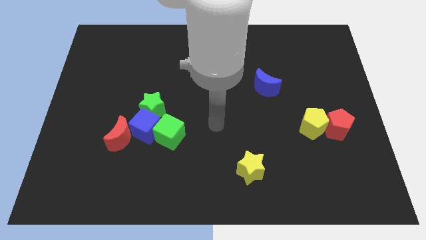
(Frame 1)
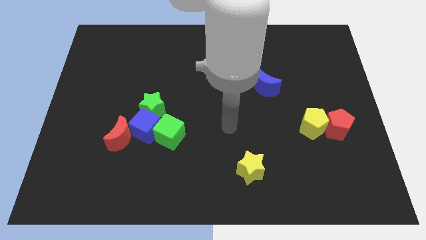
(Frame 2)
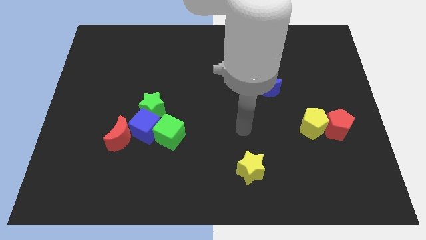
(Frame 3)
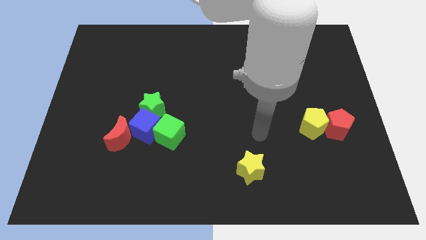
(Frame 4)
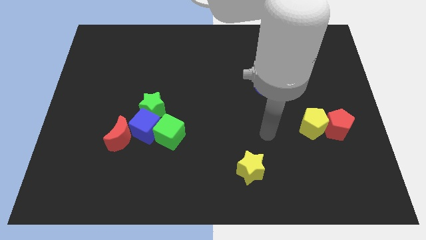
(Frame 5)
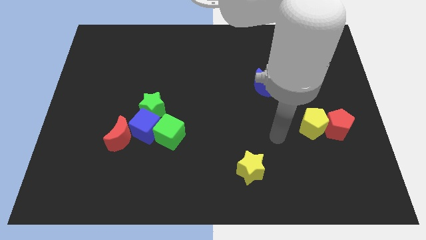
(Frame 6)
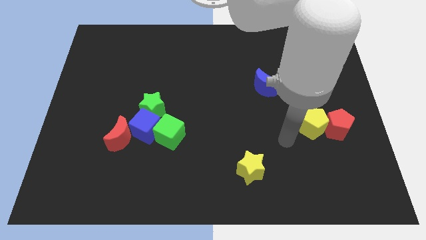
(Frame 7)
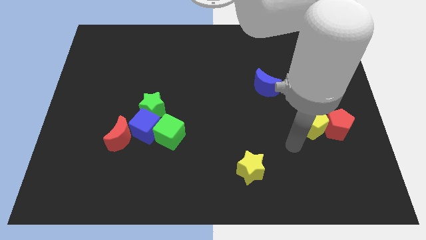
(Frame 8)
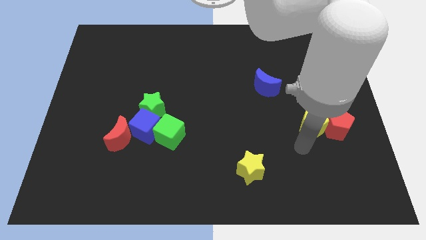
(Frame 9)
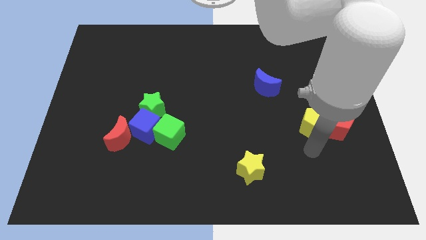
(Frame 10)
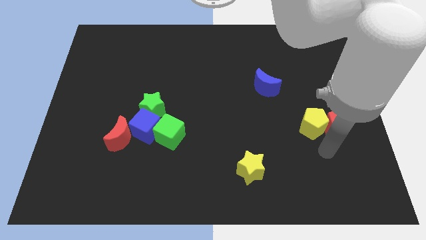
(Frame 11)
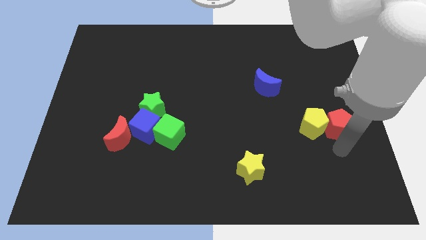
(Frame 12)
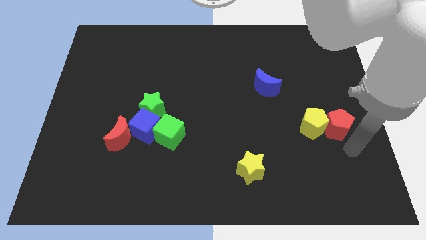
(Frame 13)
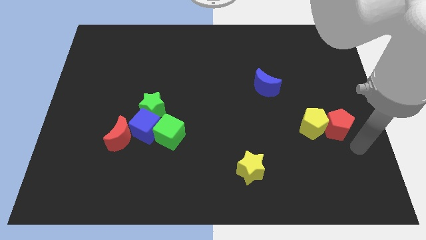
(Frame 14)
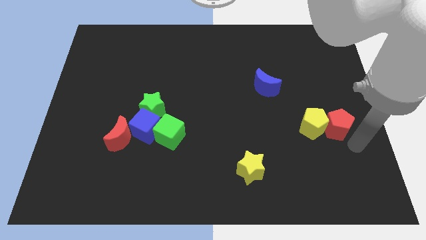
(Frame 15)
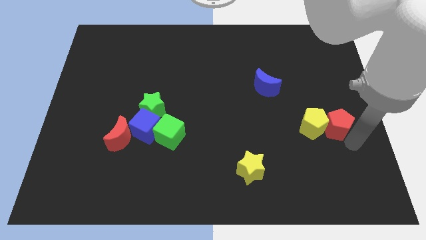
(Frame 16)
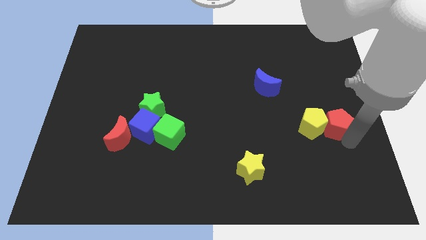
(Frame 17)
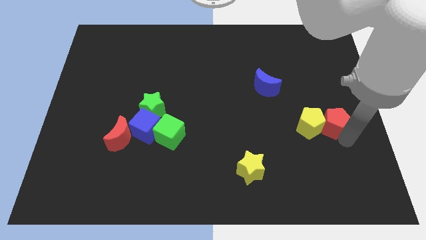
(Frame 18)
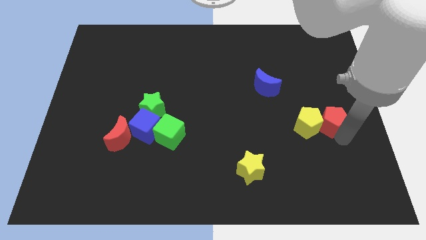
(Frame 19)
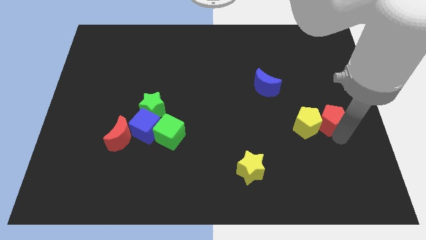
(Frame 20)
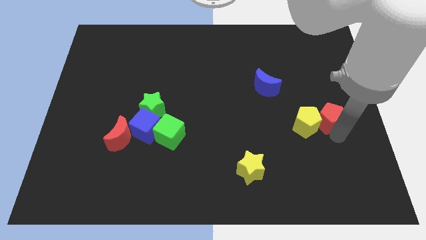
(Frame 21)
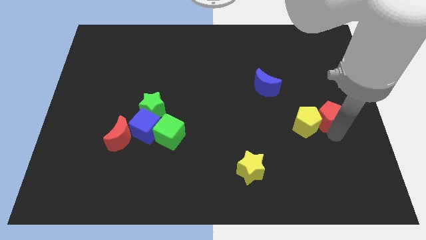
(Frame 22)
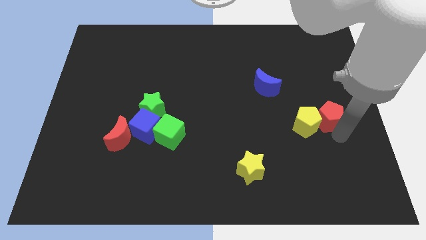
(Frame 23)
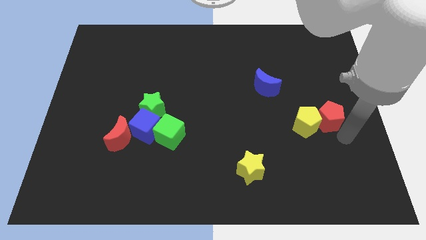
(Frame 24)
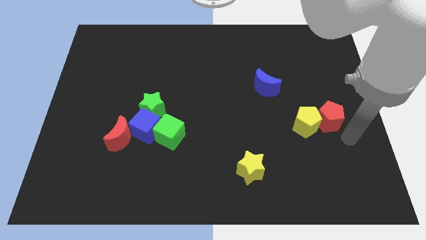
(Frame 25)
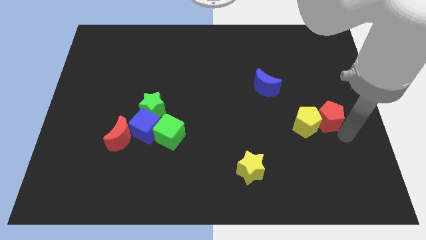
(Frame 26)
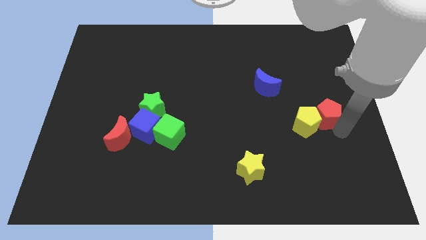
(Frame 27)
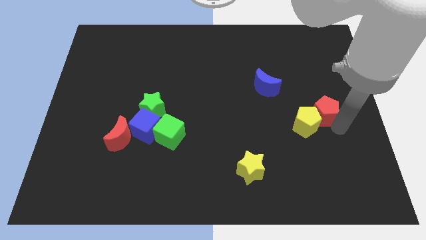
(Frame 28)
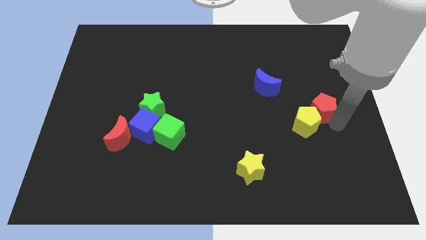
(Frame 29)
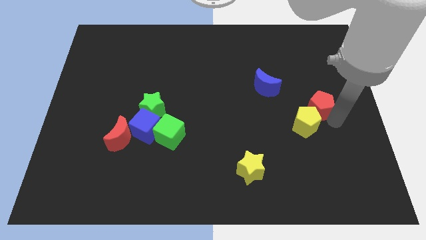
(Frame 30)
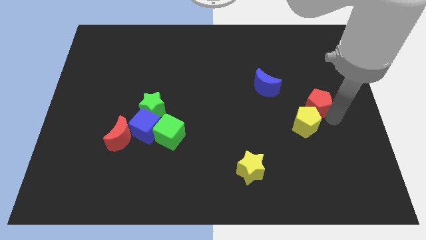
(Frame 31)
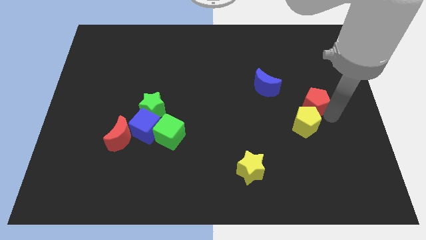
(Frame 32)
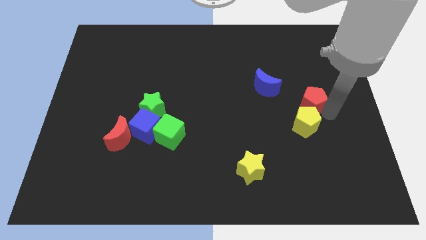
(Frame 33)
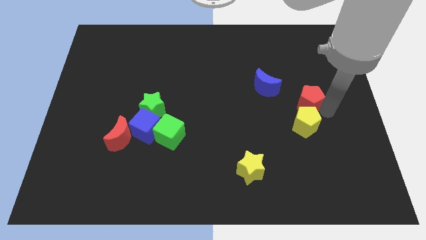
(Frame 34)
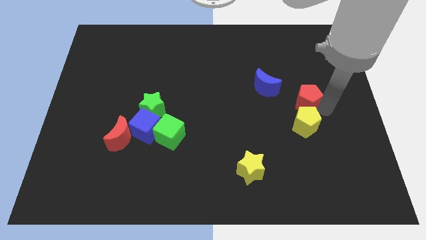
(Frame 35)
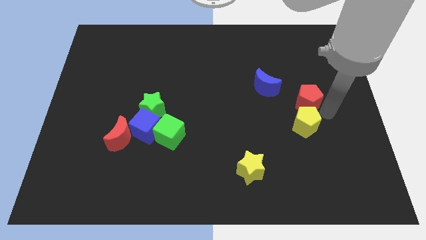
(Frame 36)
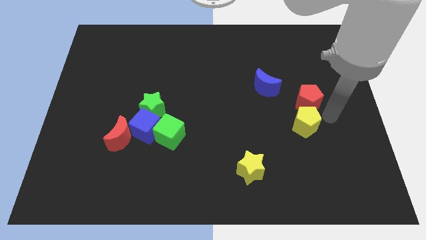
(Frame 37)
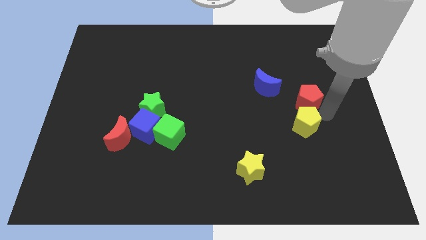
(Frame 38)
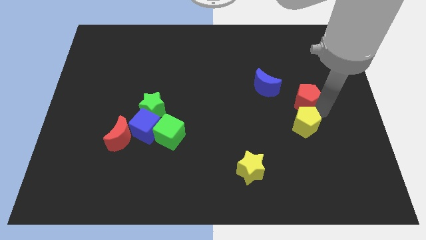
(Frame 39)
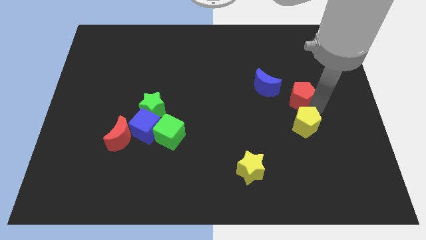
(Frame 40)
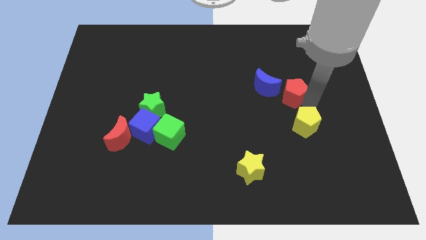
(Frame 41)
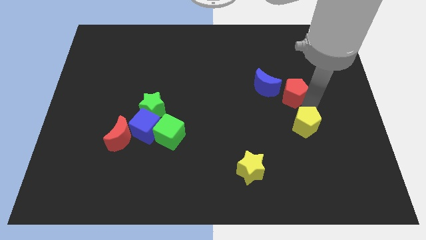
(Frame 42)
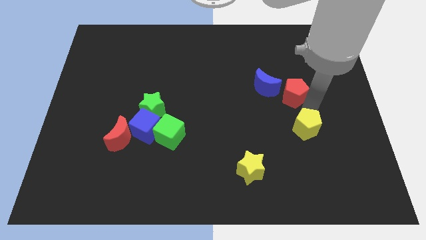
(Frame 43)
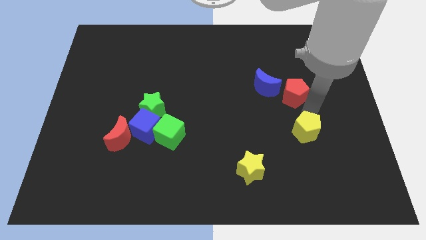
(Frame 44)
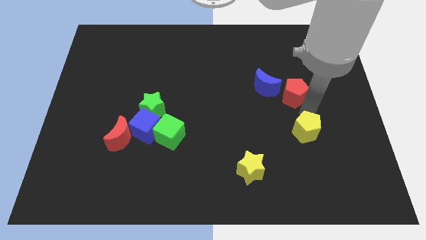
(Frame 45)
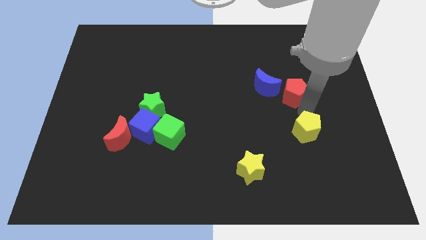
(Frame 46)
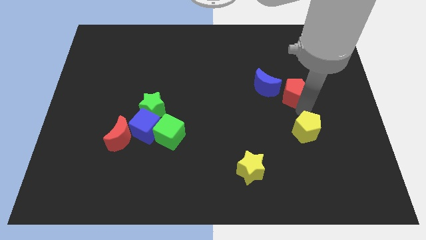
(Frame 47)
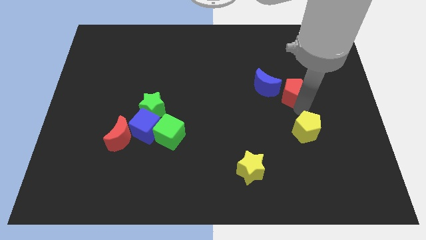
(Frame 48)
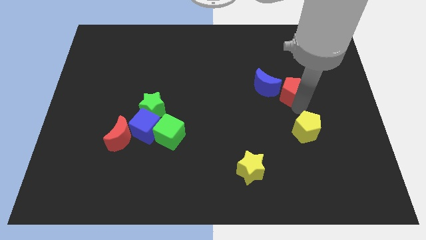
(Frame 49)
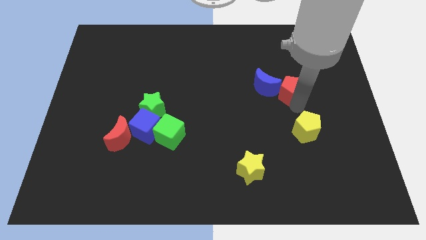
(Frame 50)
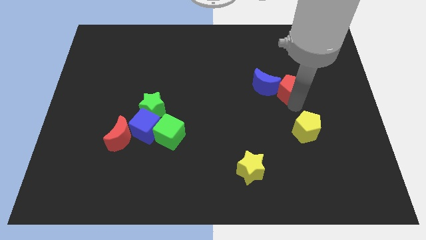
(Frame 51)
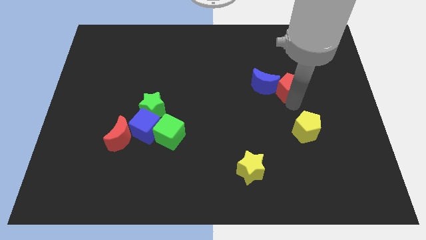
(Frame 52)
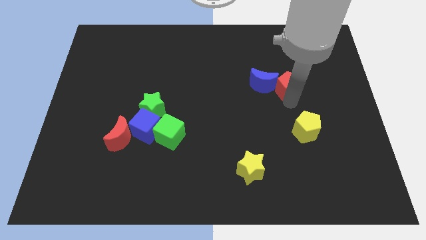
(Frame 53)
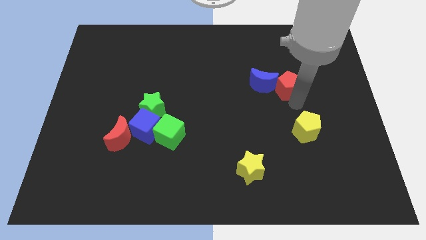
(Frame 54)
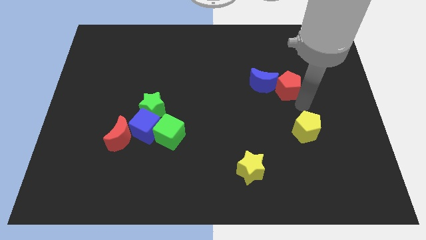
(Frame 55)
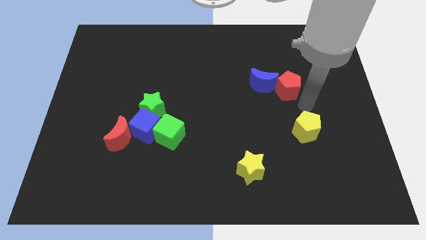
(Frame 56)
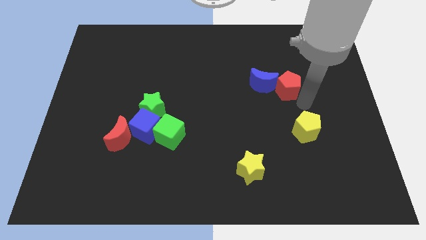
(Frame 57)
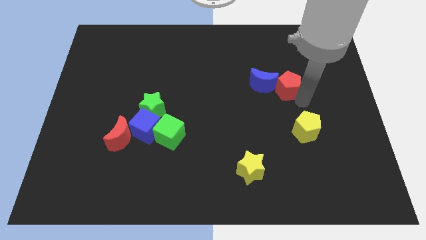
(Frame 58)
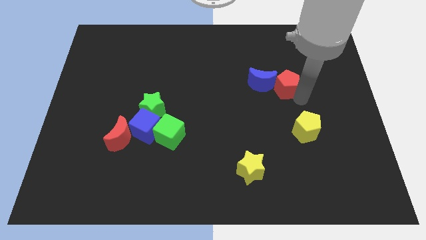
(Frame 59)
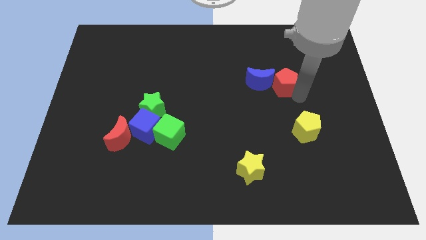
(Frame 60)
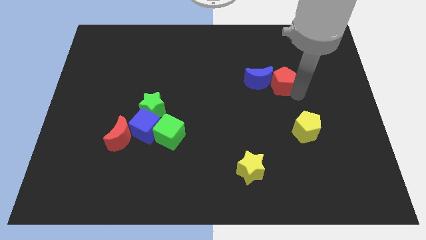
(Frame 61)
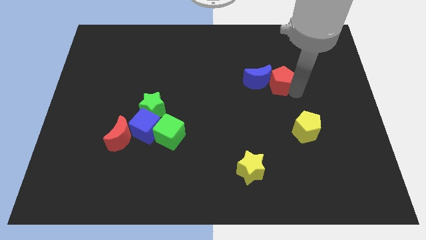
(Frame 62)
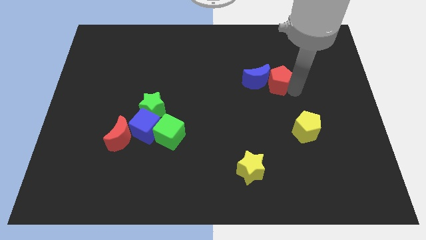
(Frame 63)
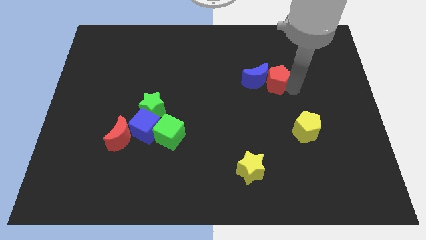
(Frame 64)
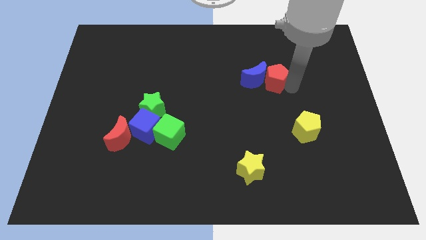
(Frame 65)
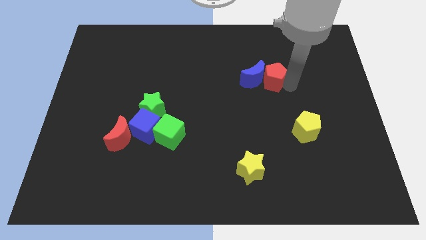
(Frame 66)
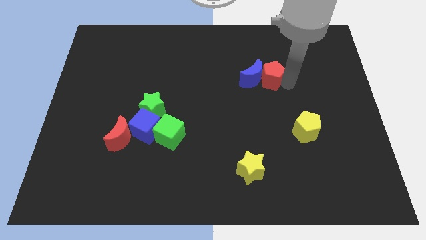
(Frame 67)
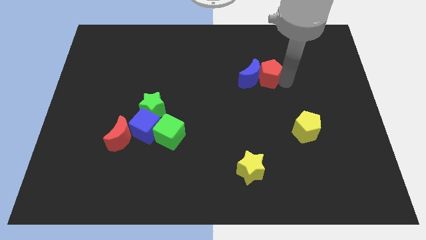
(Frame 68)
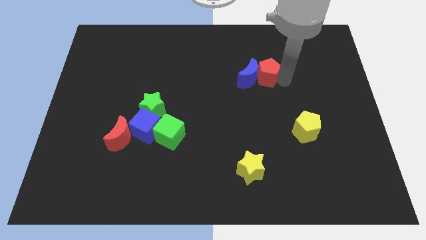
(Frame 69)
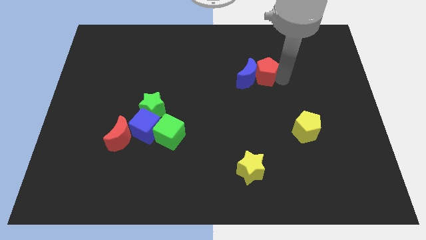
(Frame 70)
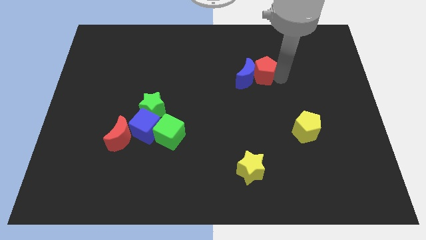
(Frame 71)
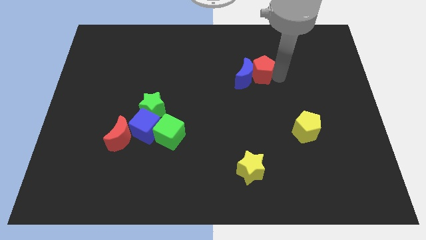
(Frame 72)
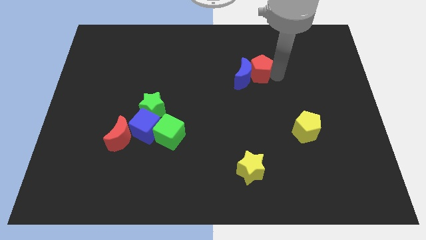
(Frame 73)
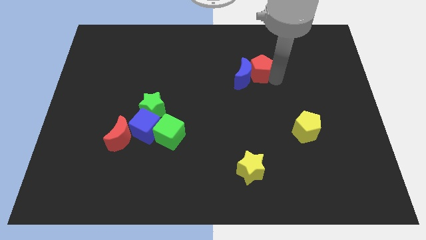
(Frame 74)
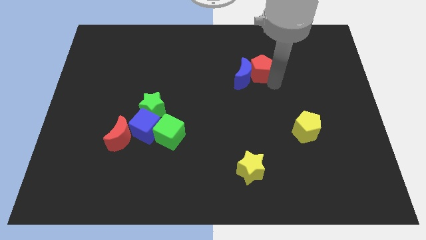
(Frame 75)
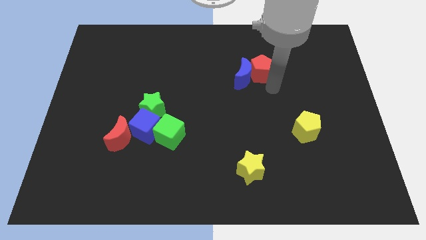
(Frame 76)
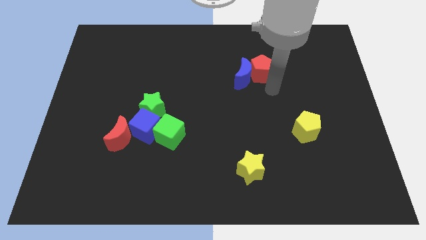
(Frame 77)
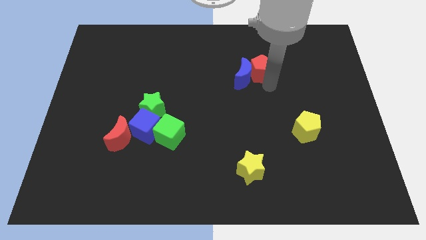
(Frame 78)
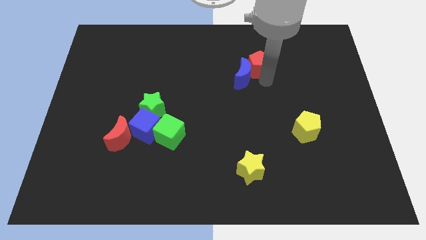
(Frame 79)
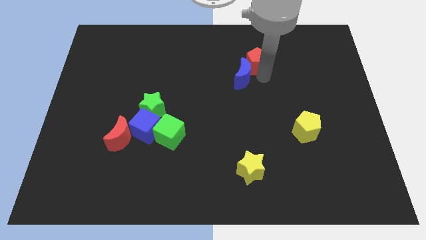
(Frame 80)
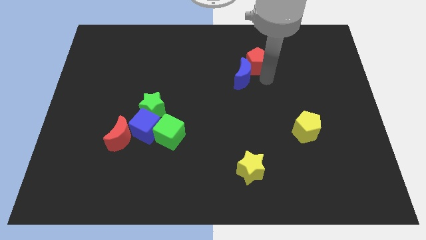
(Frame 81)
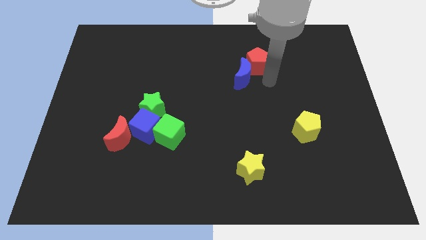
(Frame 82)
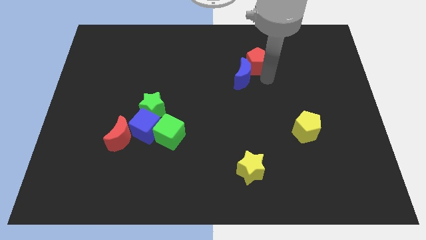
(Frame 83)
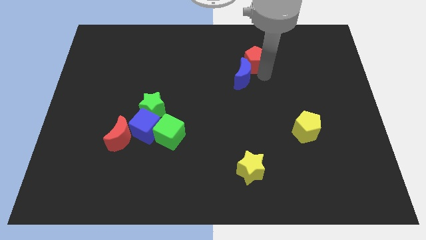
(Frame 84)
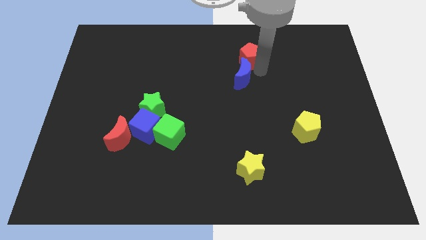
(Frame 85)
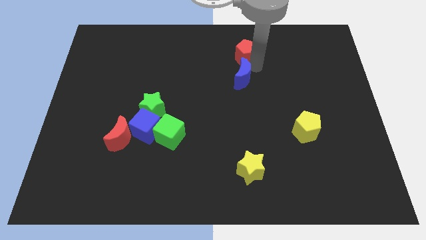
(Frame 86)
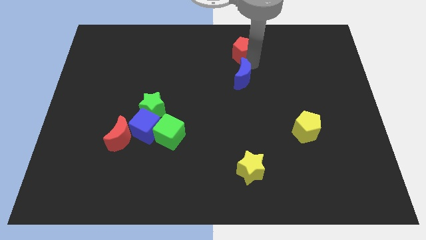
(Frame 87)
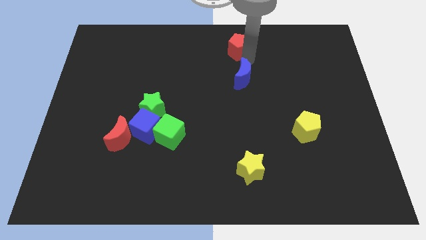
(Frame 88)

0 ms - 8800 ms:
slide the red pentagon to the towards your base
